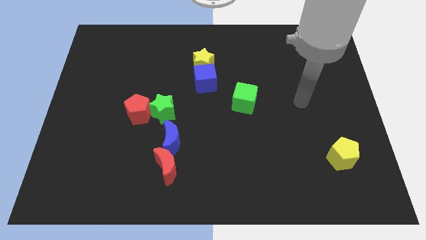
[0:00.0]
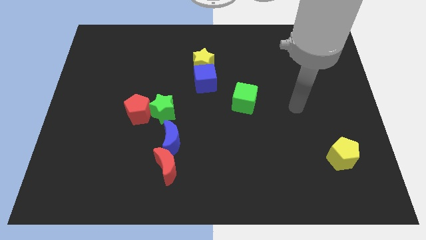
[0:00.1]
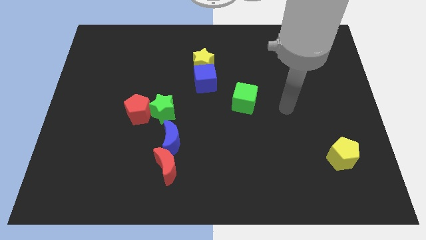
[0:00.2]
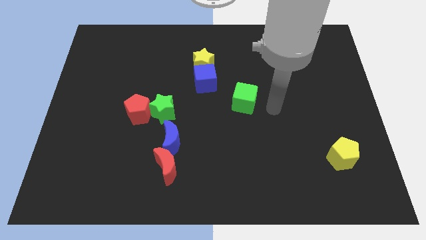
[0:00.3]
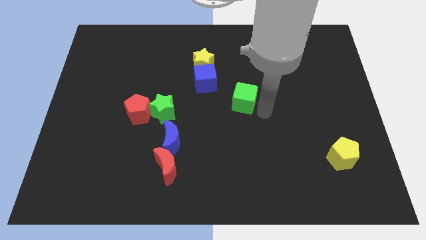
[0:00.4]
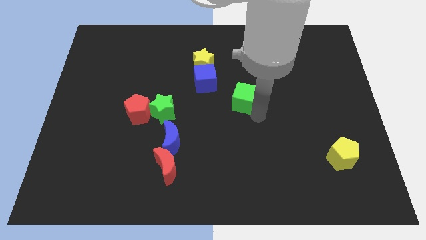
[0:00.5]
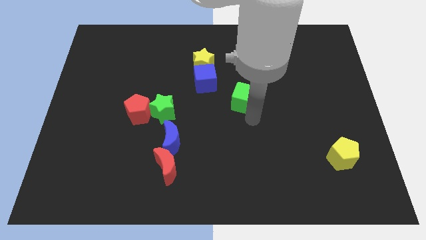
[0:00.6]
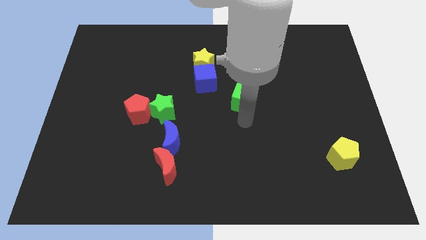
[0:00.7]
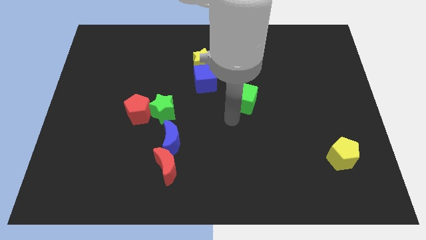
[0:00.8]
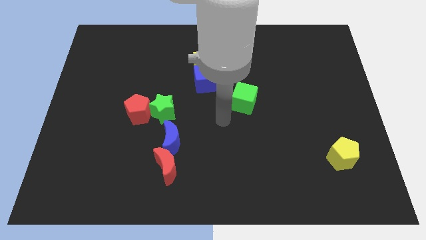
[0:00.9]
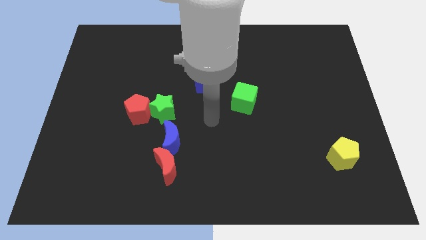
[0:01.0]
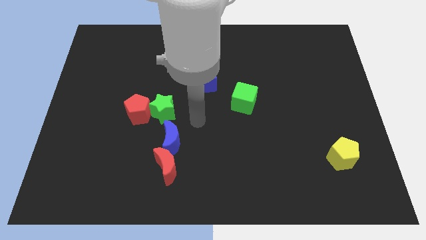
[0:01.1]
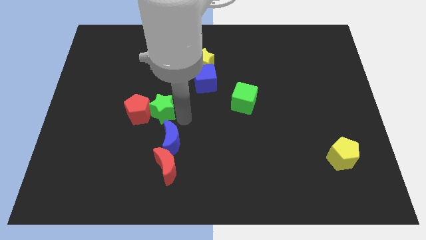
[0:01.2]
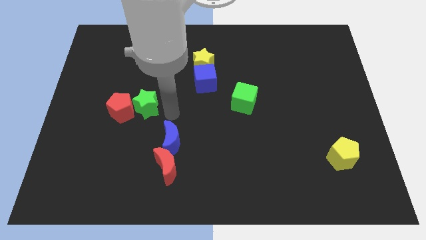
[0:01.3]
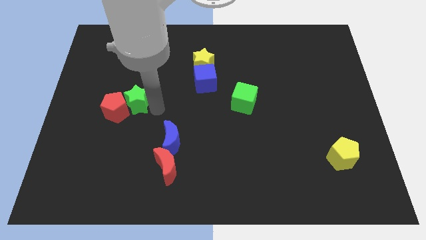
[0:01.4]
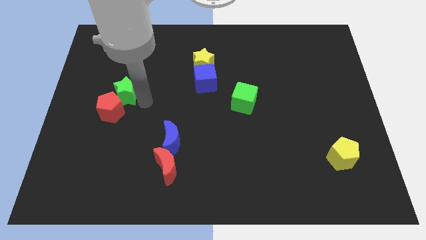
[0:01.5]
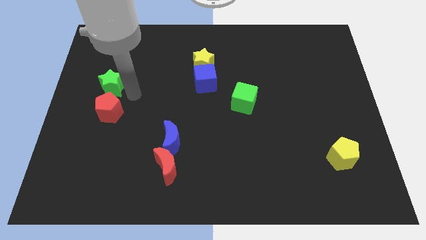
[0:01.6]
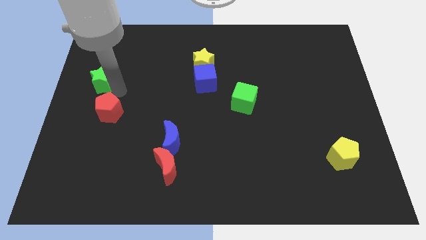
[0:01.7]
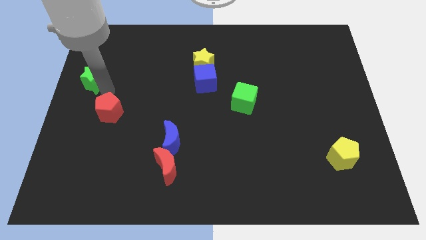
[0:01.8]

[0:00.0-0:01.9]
separate the red pentagon from the green star

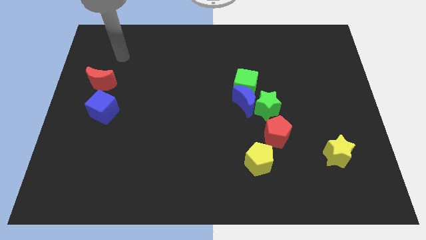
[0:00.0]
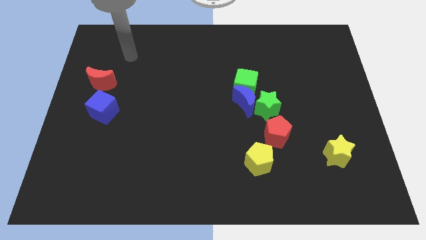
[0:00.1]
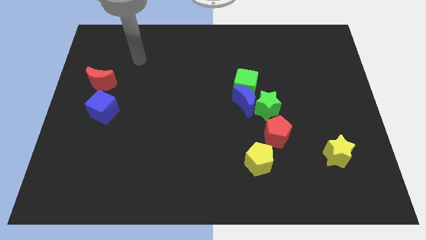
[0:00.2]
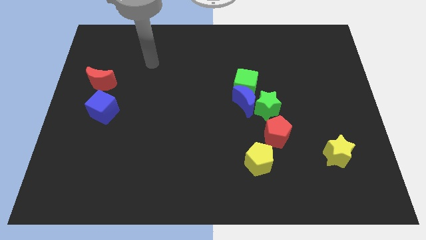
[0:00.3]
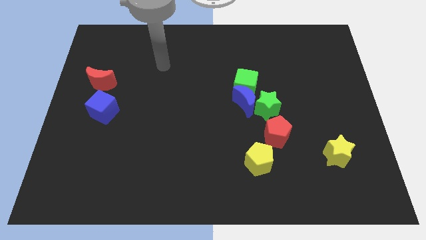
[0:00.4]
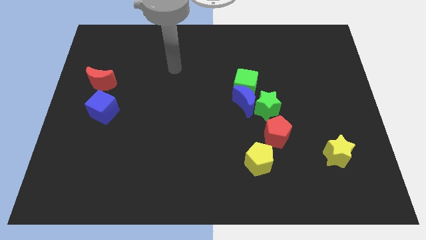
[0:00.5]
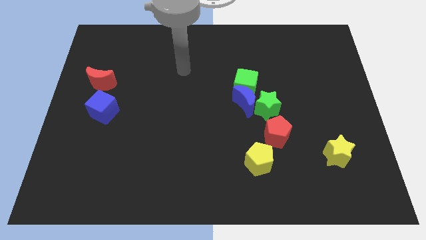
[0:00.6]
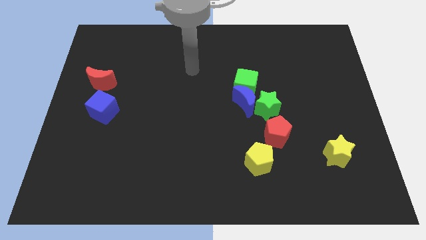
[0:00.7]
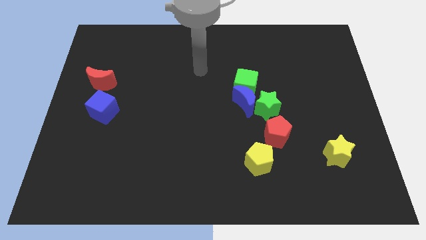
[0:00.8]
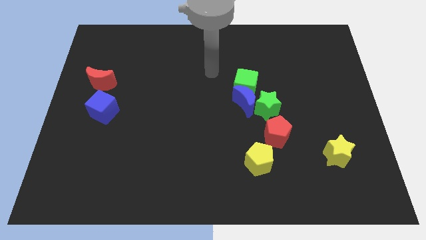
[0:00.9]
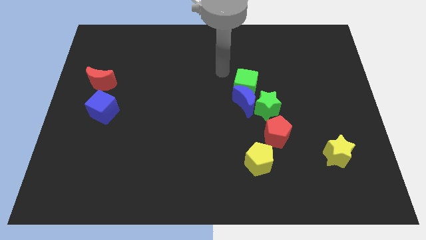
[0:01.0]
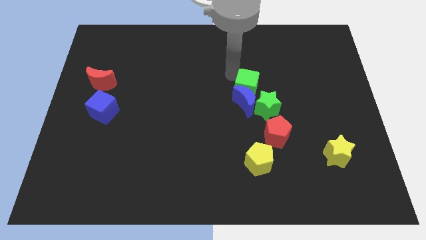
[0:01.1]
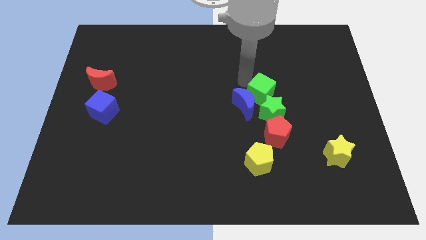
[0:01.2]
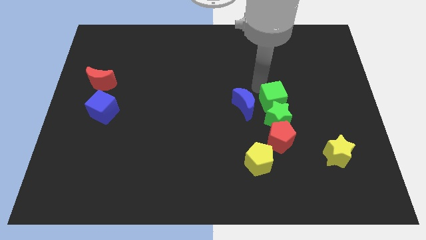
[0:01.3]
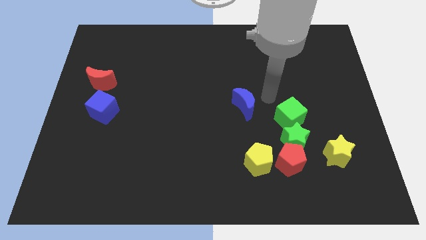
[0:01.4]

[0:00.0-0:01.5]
separate the blue moon from the green cube and green star

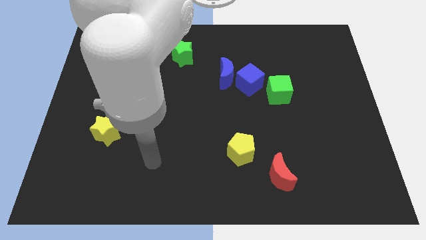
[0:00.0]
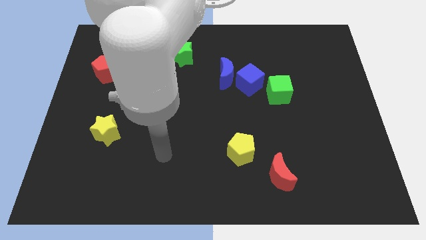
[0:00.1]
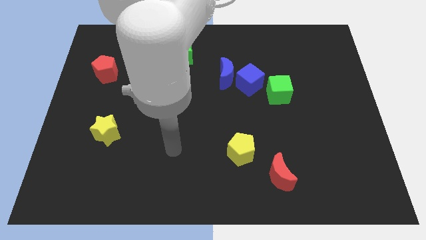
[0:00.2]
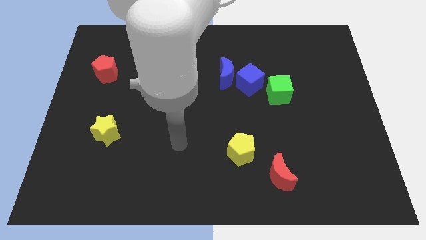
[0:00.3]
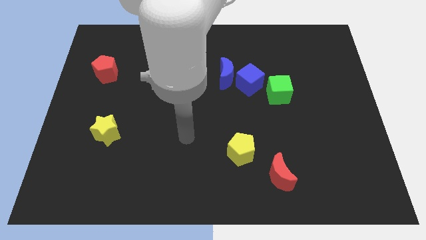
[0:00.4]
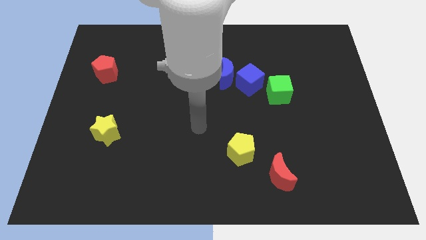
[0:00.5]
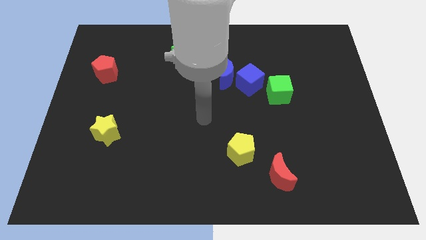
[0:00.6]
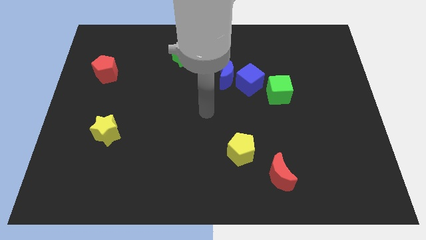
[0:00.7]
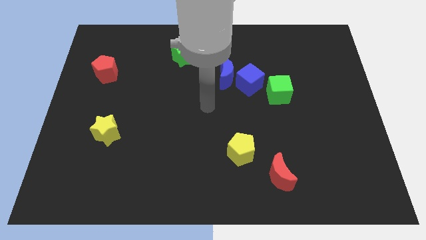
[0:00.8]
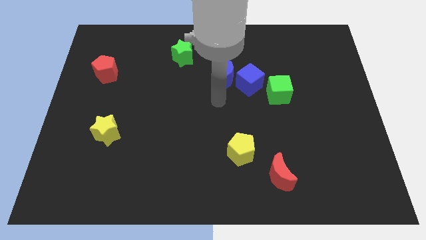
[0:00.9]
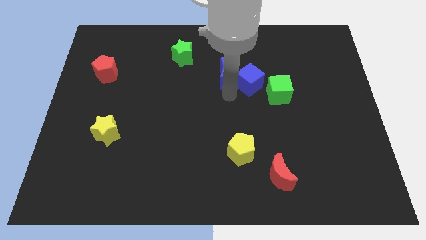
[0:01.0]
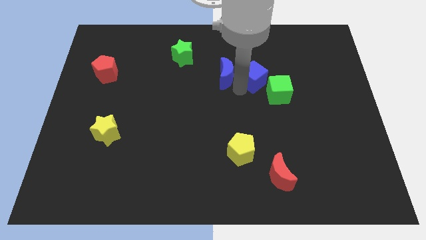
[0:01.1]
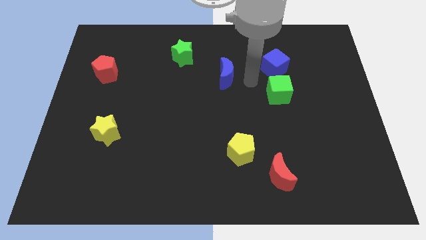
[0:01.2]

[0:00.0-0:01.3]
separate the blue moon from the blue cube

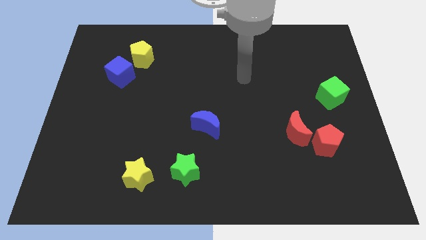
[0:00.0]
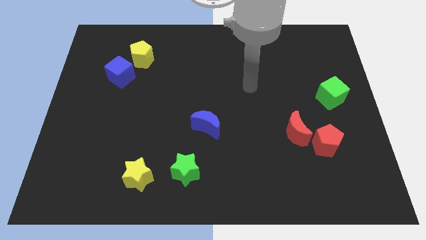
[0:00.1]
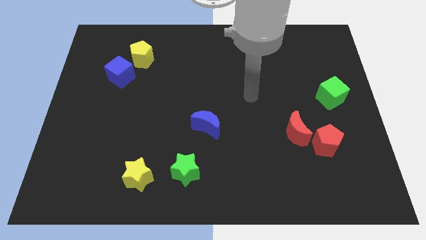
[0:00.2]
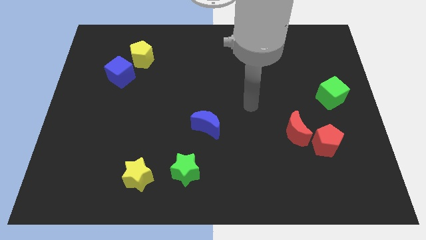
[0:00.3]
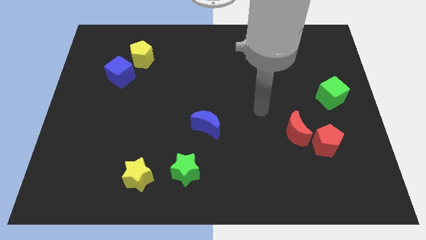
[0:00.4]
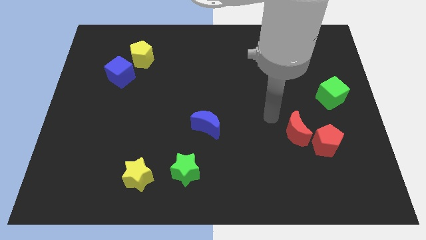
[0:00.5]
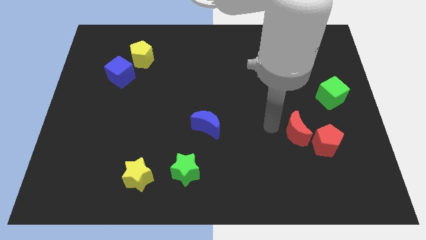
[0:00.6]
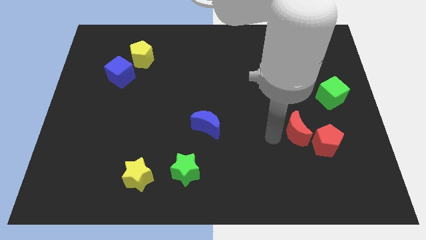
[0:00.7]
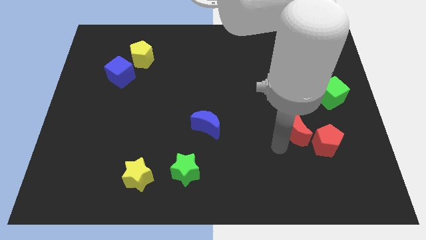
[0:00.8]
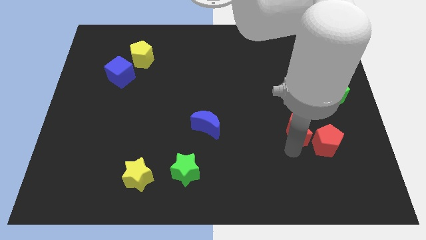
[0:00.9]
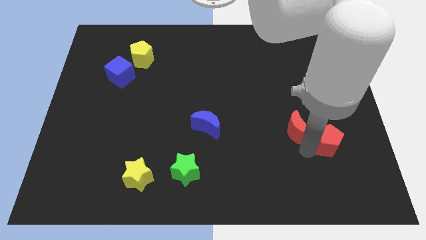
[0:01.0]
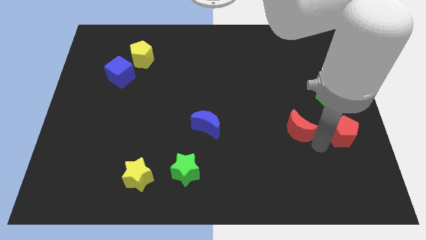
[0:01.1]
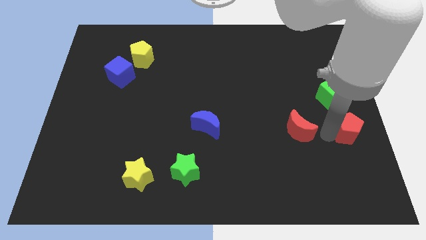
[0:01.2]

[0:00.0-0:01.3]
move the red moon away from the red pentagon

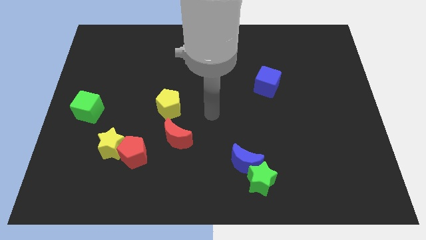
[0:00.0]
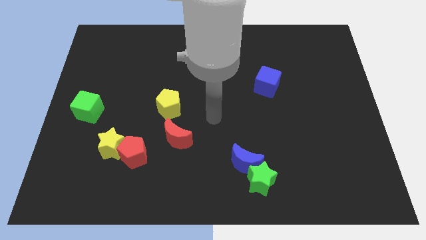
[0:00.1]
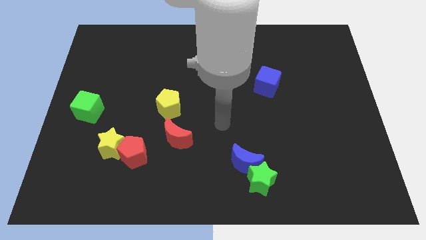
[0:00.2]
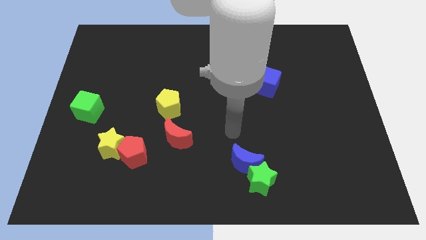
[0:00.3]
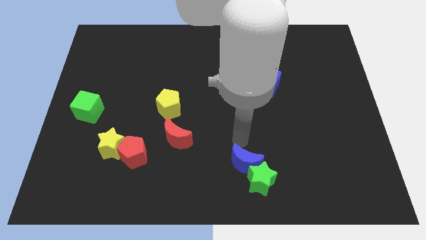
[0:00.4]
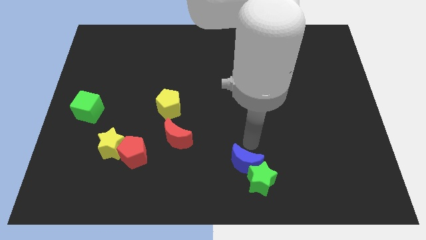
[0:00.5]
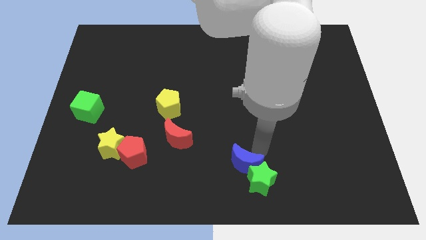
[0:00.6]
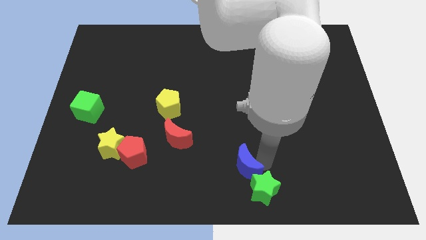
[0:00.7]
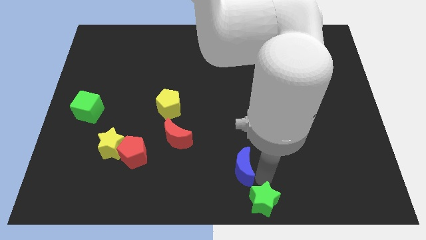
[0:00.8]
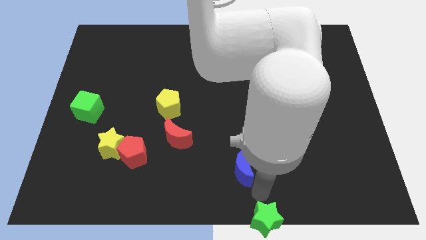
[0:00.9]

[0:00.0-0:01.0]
move the blue moon away from the green star

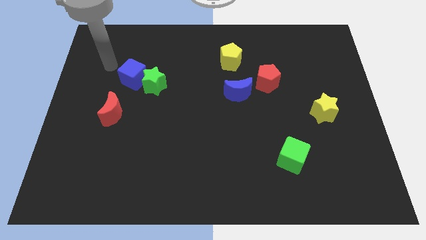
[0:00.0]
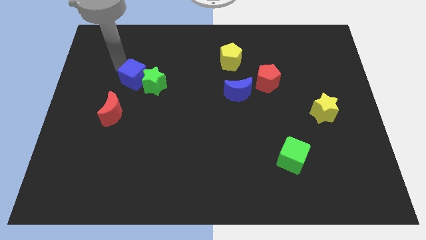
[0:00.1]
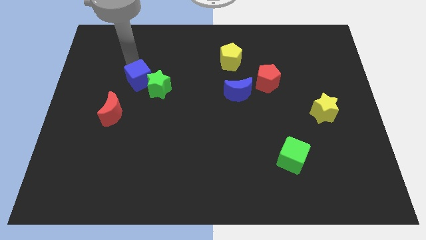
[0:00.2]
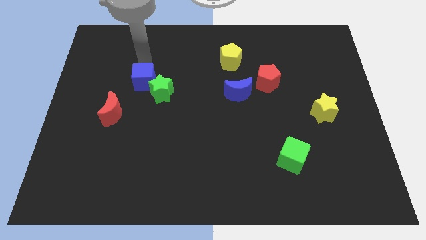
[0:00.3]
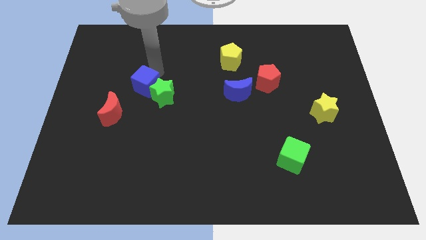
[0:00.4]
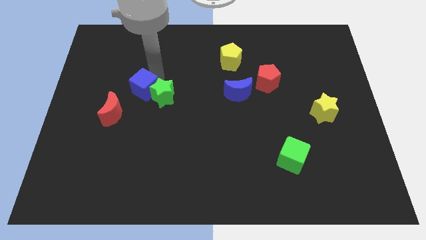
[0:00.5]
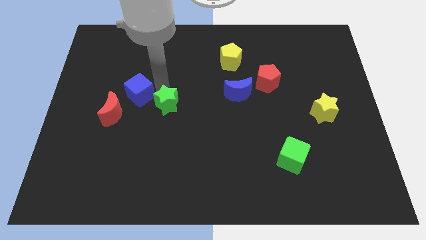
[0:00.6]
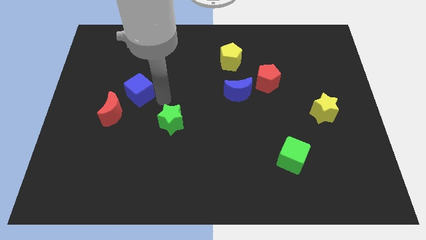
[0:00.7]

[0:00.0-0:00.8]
separate the blue cube from the green star

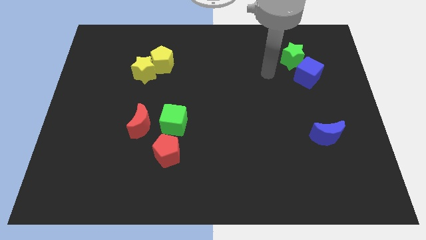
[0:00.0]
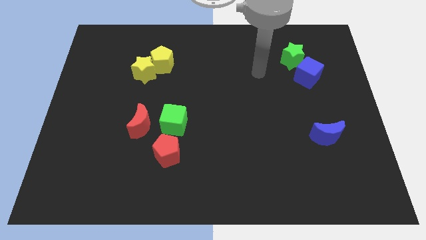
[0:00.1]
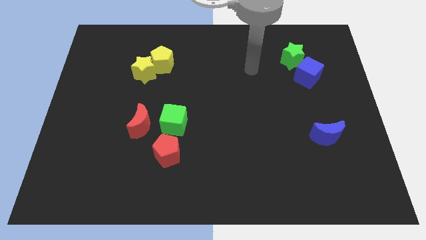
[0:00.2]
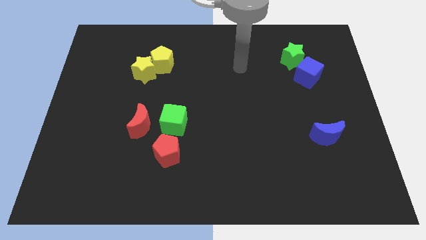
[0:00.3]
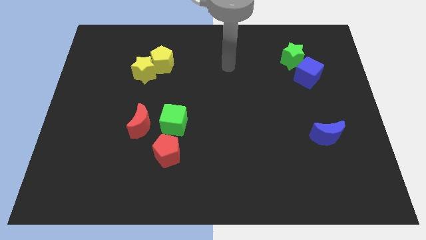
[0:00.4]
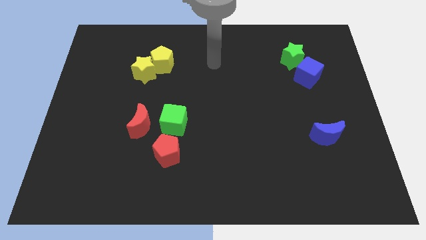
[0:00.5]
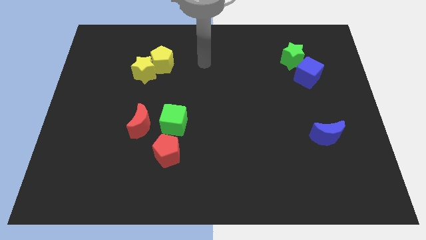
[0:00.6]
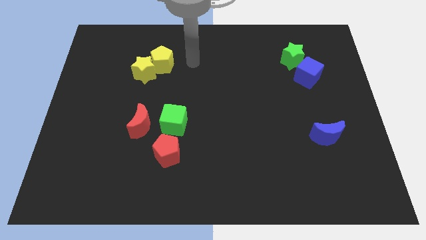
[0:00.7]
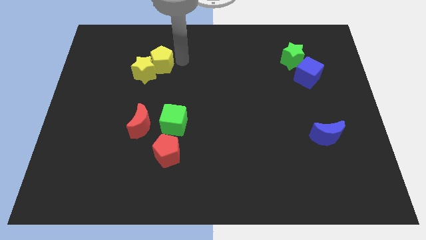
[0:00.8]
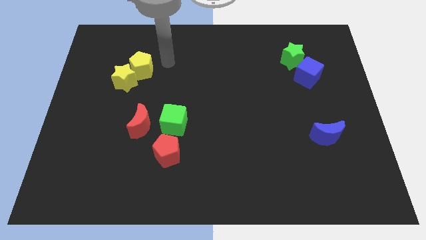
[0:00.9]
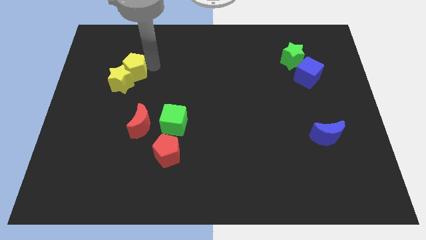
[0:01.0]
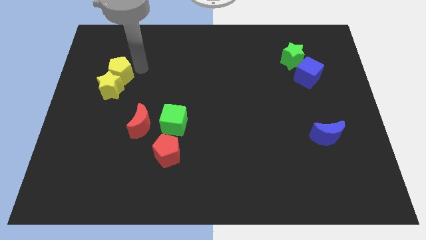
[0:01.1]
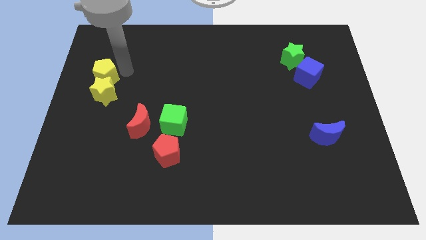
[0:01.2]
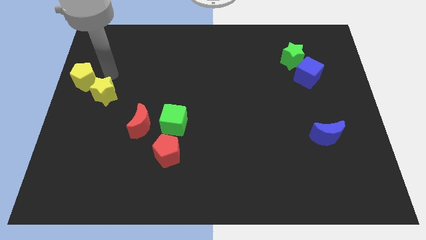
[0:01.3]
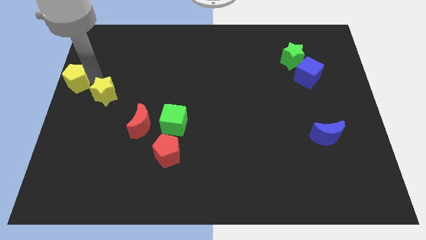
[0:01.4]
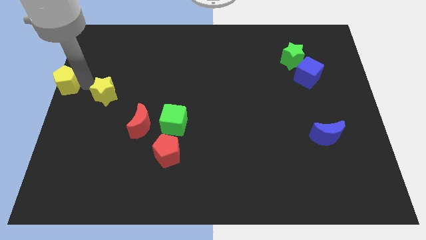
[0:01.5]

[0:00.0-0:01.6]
move the yellow star away from the yellow pentagon
